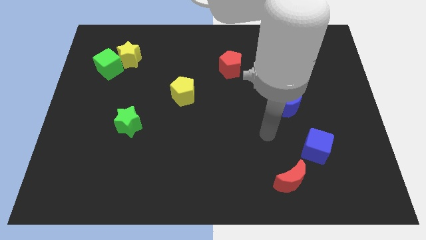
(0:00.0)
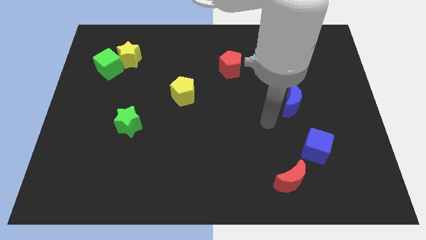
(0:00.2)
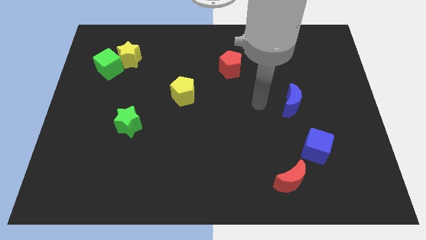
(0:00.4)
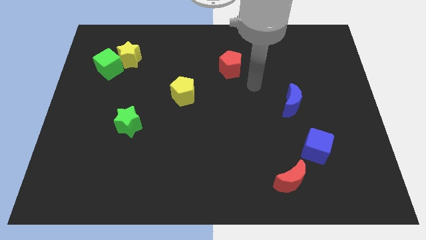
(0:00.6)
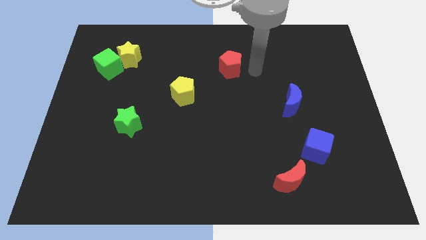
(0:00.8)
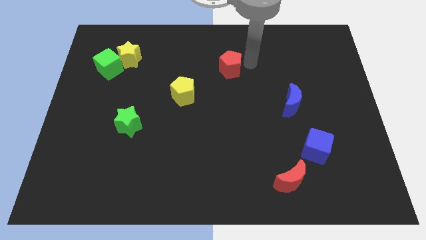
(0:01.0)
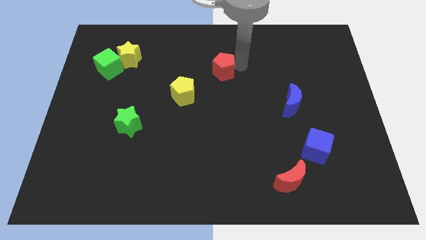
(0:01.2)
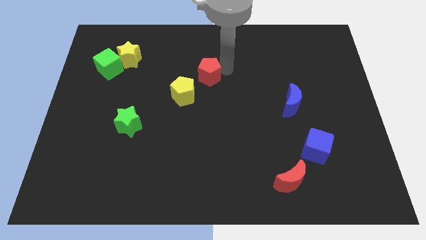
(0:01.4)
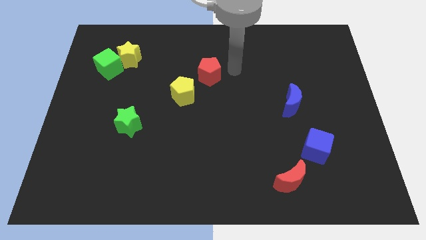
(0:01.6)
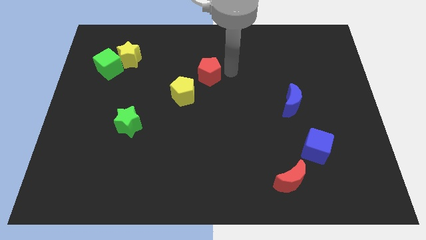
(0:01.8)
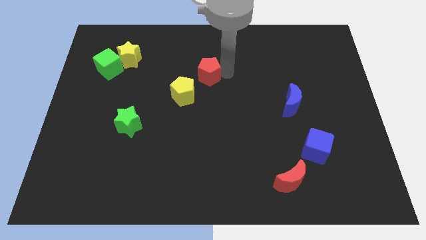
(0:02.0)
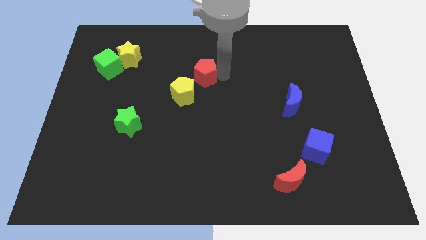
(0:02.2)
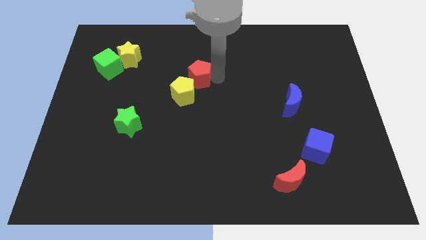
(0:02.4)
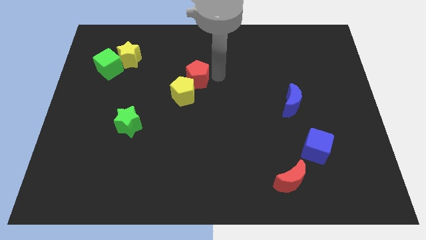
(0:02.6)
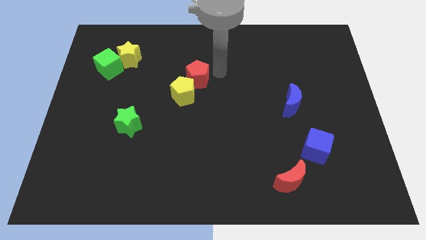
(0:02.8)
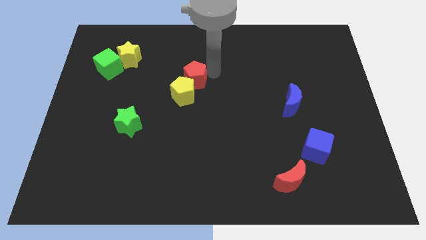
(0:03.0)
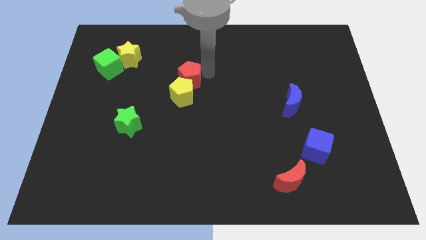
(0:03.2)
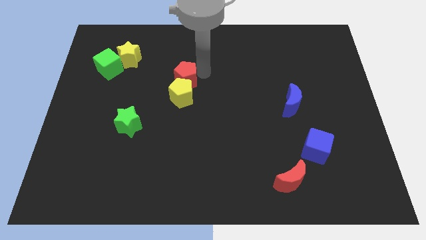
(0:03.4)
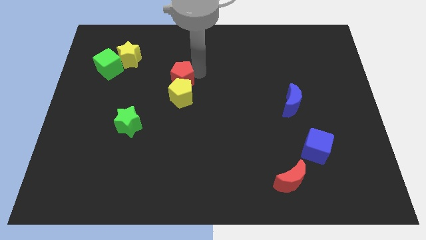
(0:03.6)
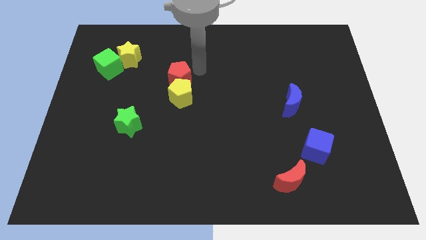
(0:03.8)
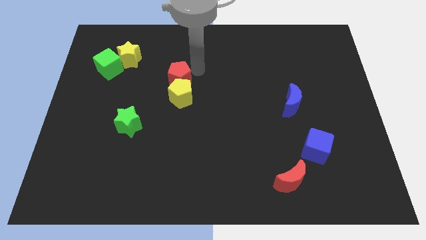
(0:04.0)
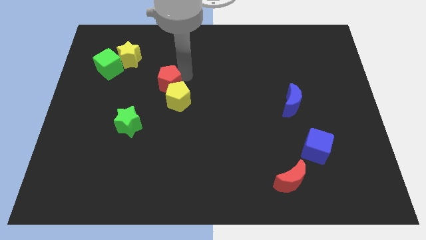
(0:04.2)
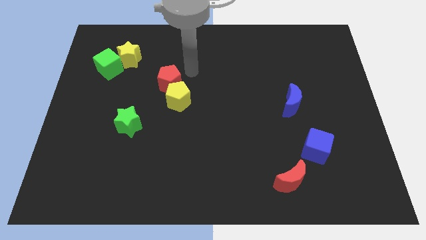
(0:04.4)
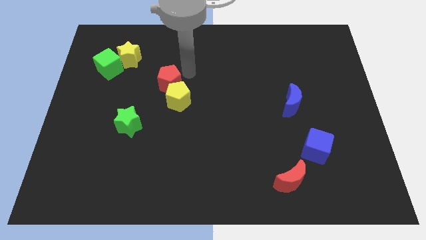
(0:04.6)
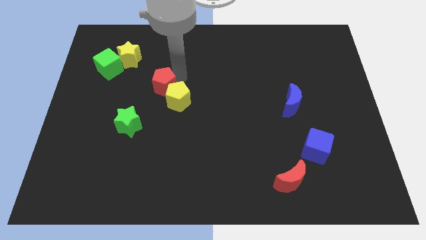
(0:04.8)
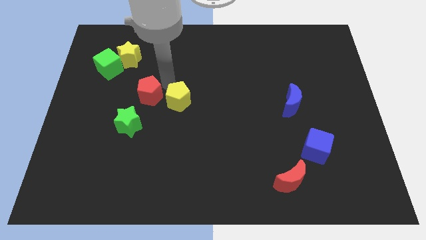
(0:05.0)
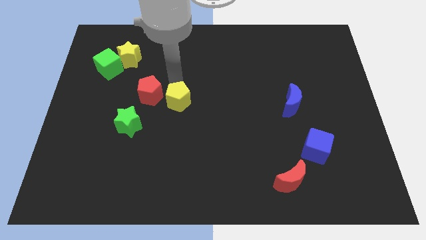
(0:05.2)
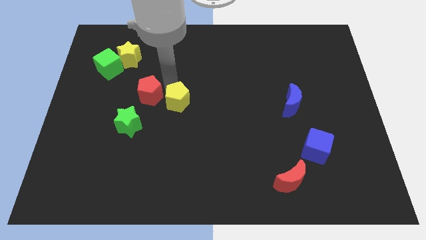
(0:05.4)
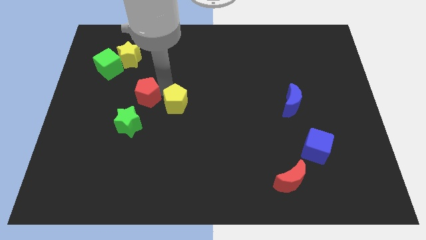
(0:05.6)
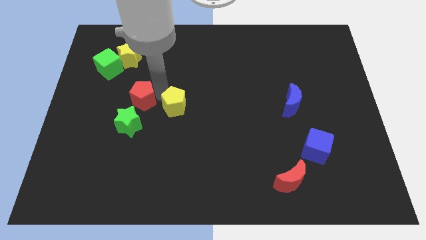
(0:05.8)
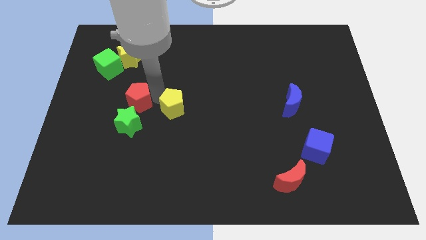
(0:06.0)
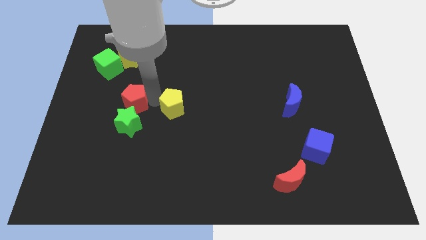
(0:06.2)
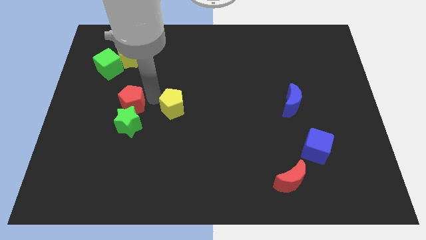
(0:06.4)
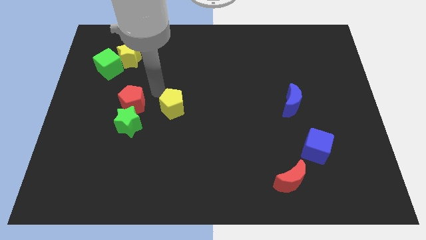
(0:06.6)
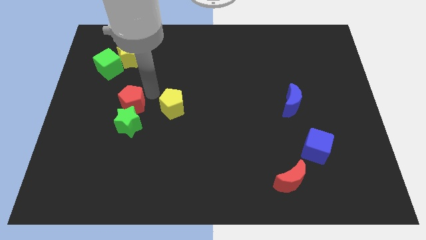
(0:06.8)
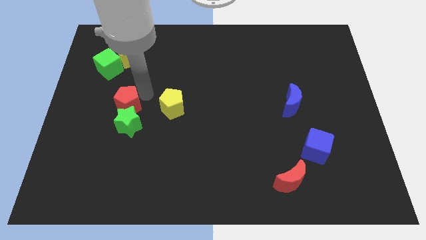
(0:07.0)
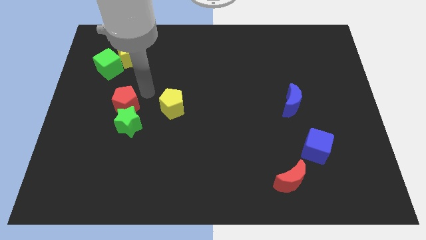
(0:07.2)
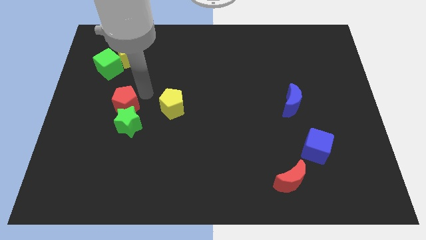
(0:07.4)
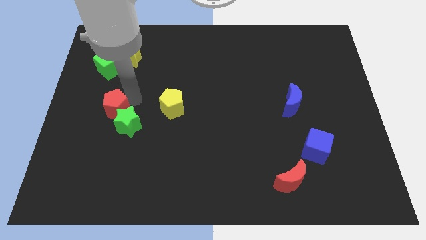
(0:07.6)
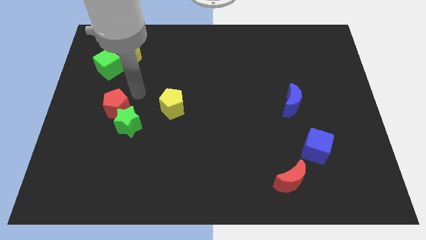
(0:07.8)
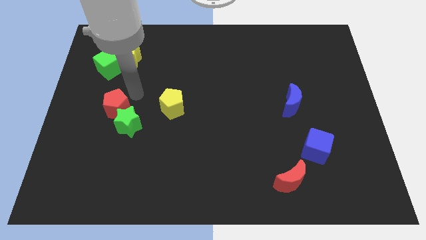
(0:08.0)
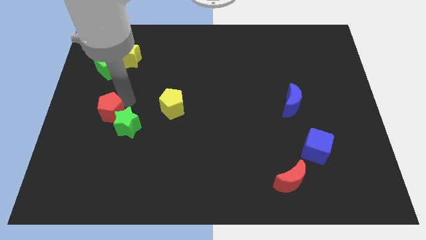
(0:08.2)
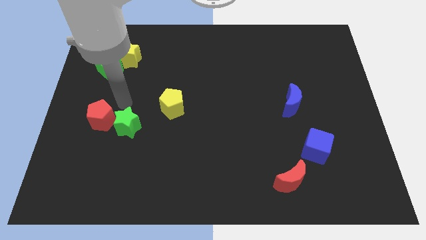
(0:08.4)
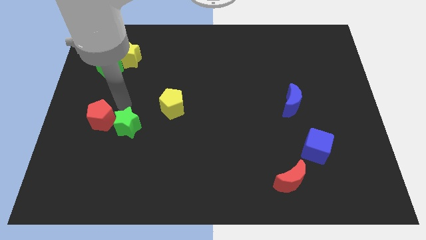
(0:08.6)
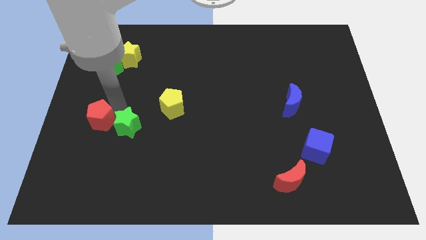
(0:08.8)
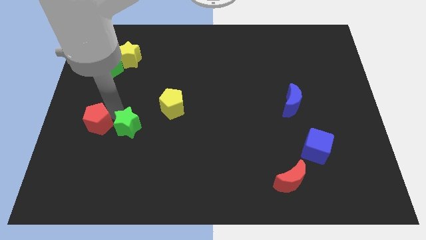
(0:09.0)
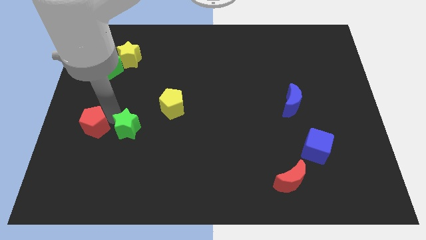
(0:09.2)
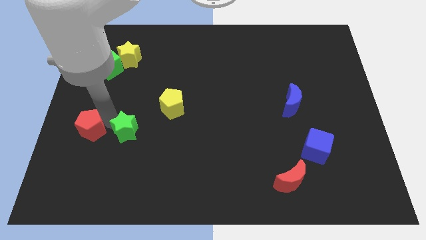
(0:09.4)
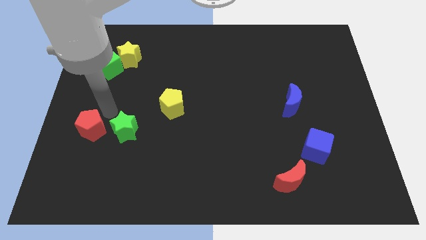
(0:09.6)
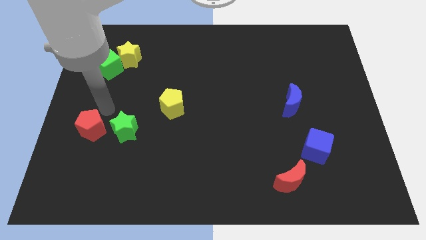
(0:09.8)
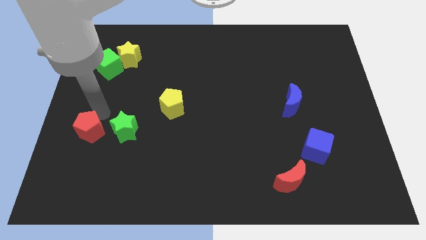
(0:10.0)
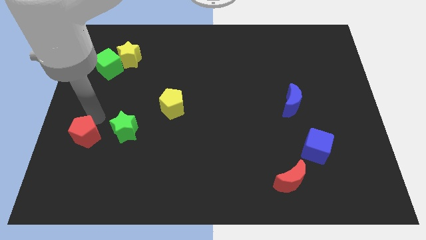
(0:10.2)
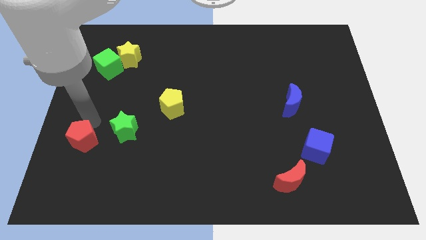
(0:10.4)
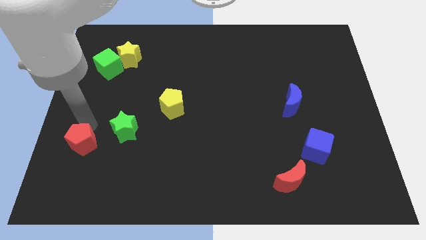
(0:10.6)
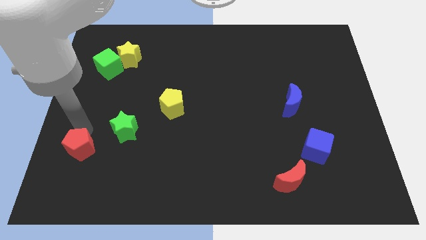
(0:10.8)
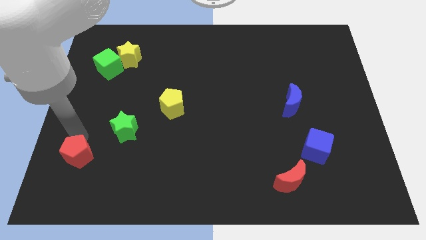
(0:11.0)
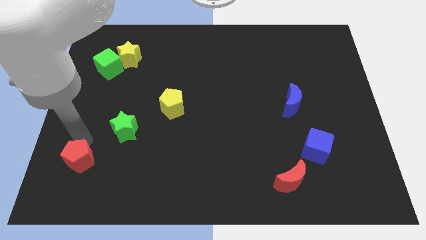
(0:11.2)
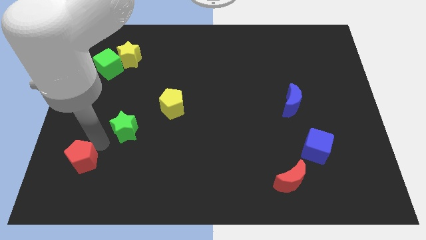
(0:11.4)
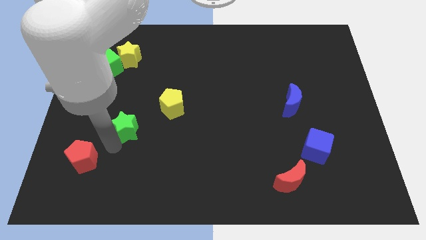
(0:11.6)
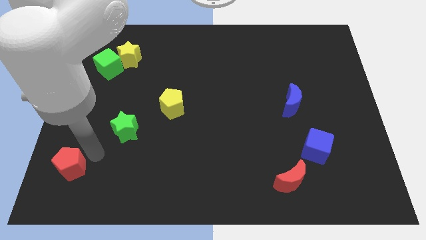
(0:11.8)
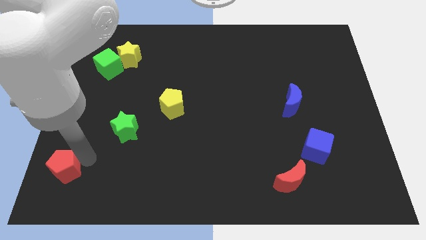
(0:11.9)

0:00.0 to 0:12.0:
push the red pentagon to the bottom left
